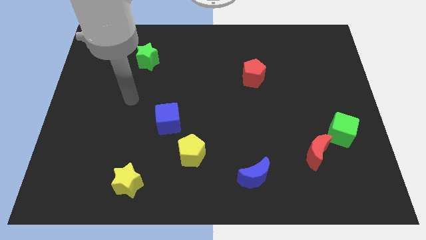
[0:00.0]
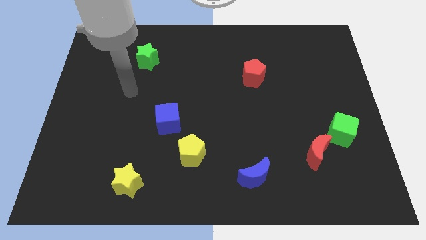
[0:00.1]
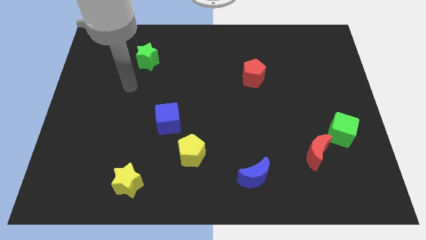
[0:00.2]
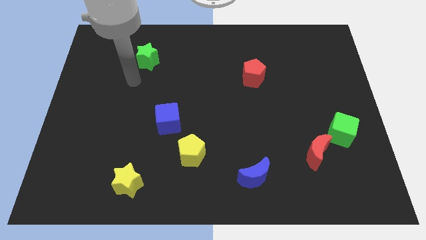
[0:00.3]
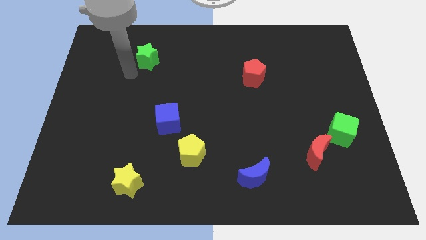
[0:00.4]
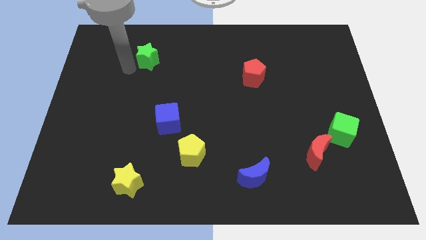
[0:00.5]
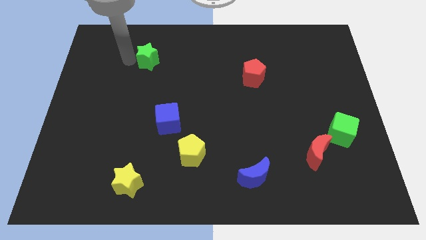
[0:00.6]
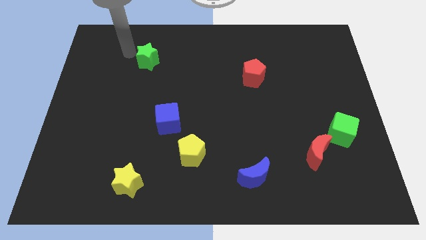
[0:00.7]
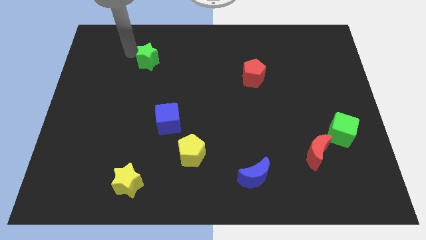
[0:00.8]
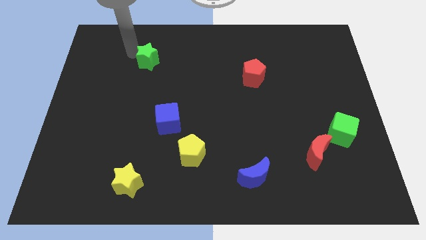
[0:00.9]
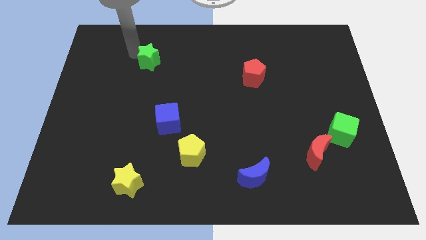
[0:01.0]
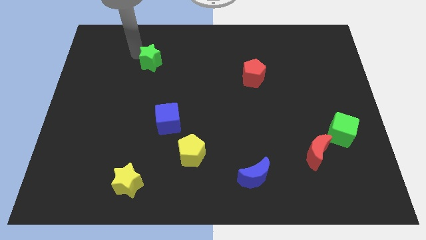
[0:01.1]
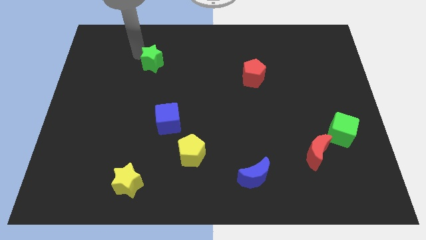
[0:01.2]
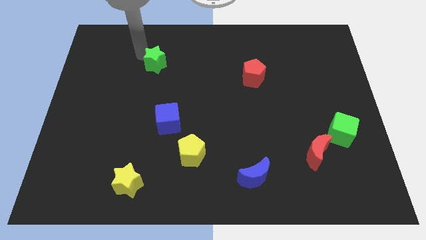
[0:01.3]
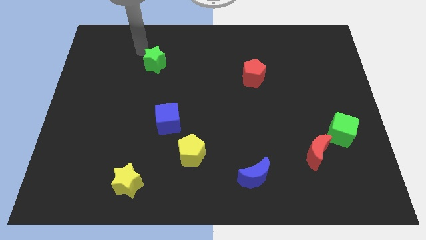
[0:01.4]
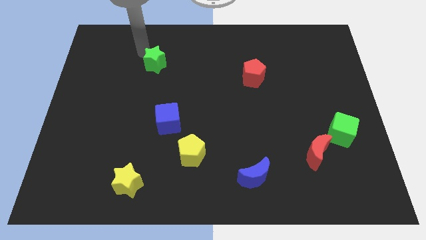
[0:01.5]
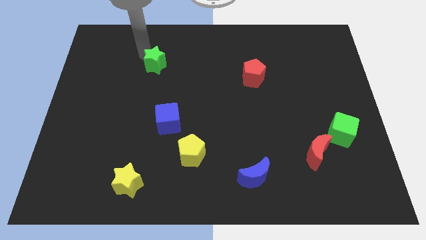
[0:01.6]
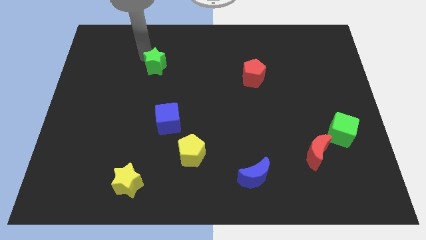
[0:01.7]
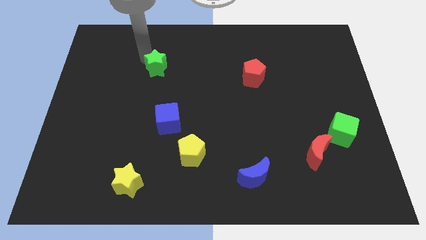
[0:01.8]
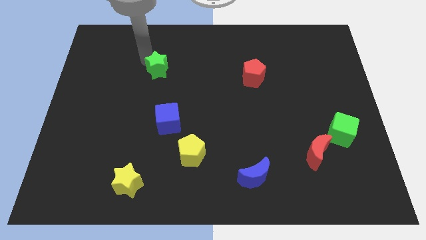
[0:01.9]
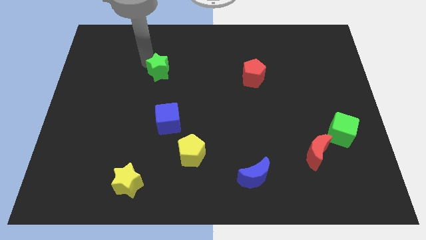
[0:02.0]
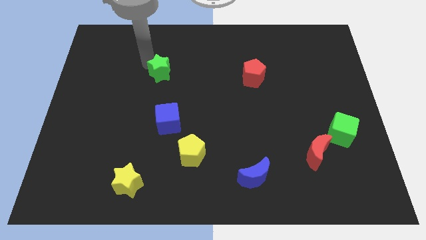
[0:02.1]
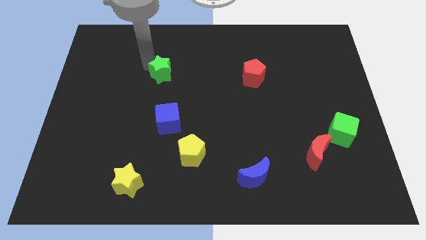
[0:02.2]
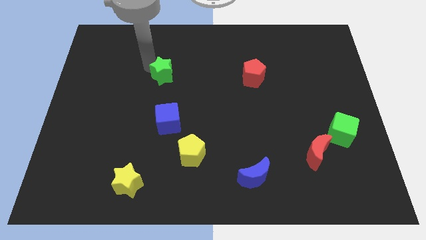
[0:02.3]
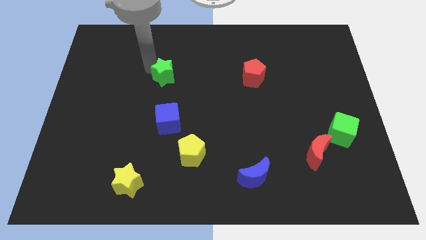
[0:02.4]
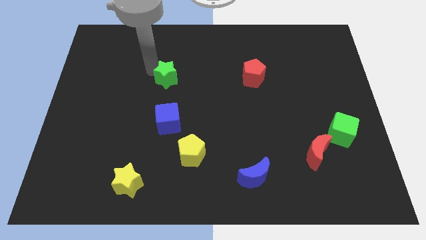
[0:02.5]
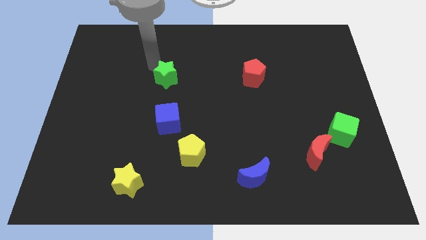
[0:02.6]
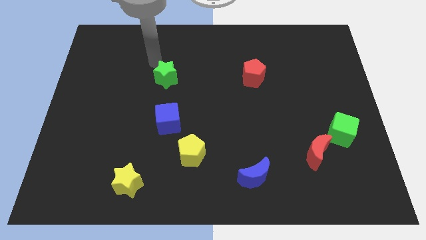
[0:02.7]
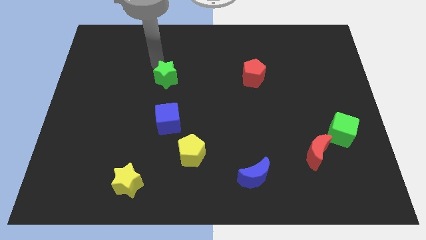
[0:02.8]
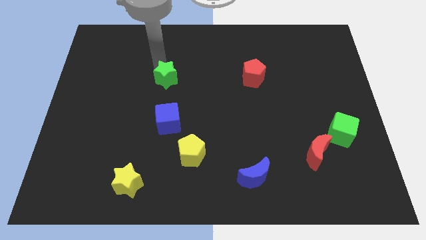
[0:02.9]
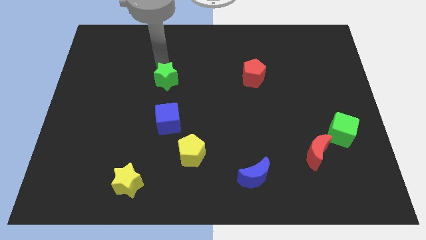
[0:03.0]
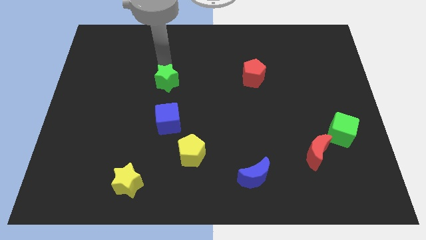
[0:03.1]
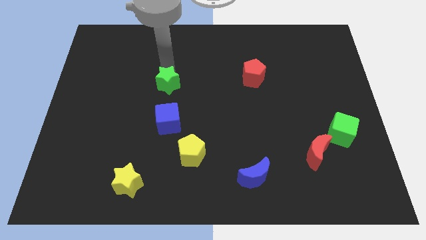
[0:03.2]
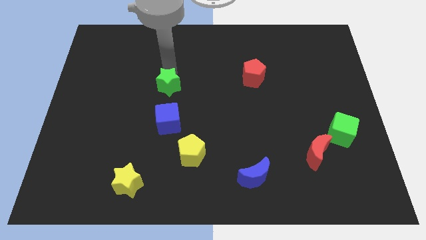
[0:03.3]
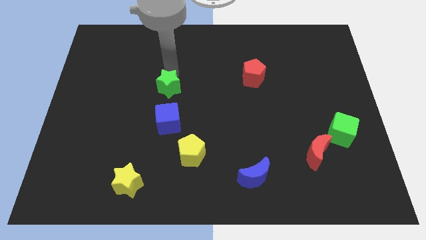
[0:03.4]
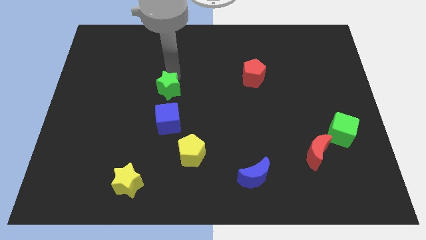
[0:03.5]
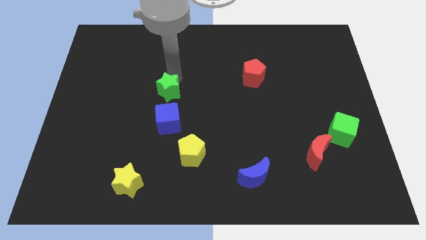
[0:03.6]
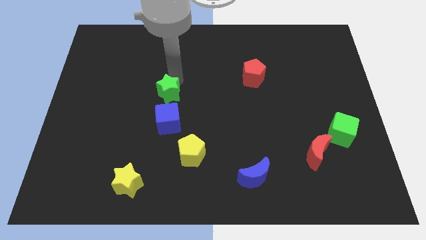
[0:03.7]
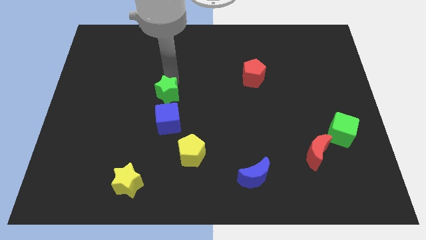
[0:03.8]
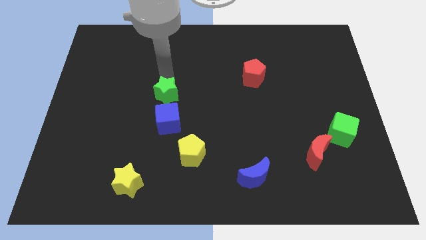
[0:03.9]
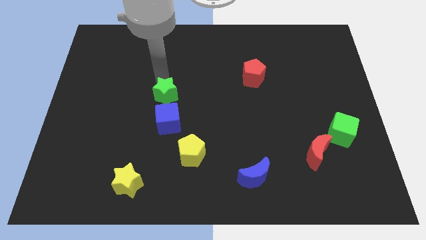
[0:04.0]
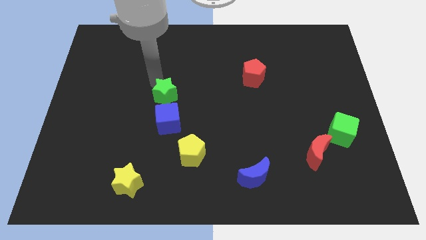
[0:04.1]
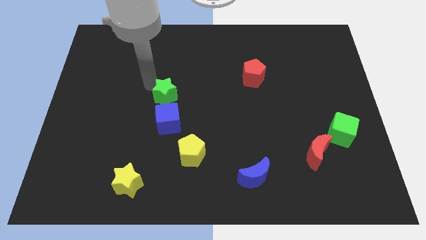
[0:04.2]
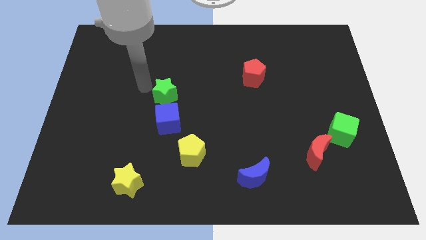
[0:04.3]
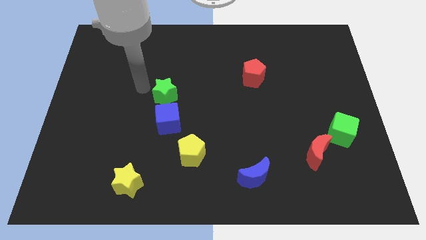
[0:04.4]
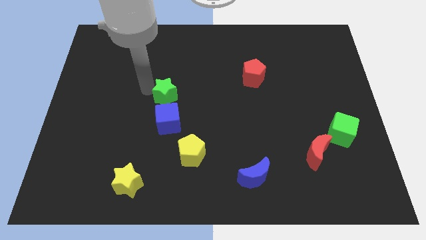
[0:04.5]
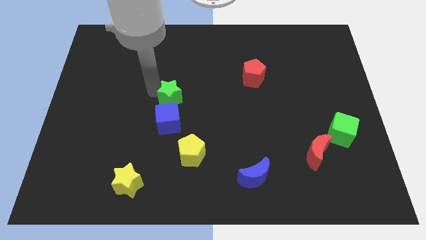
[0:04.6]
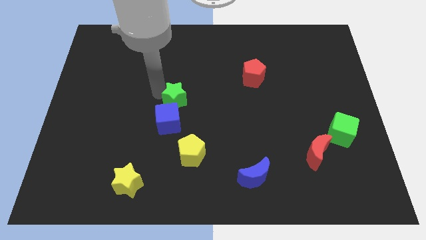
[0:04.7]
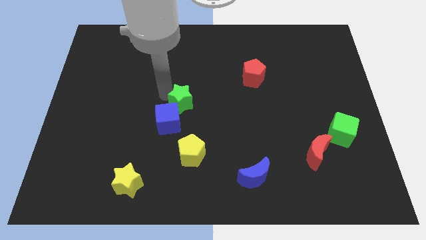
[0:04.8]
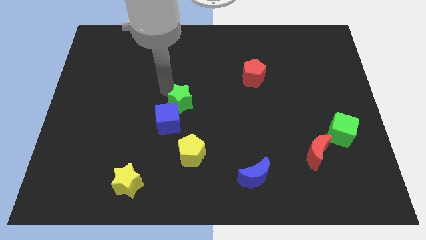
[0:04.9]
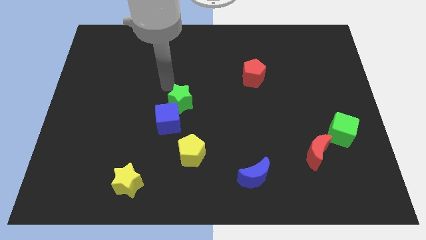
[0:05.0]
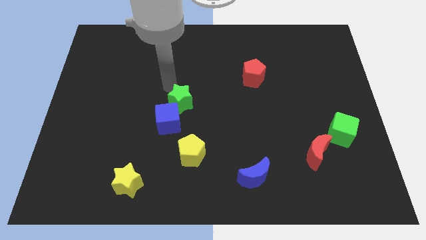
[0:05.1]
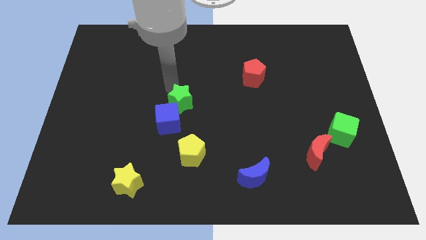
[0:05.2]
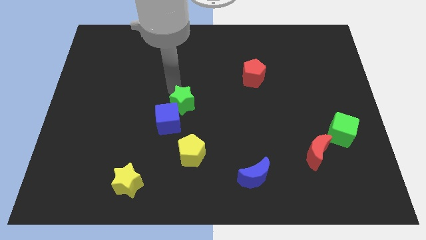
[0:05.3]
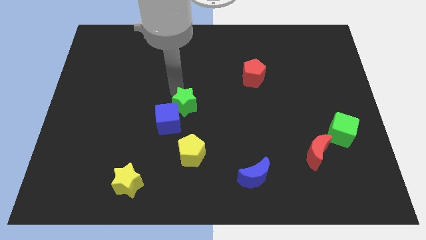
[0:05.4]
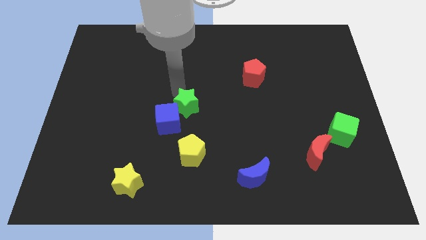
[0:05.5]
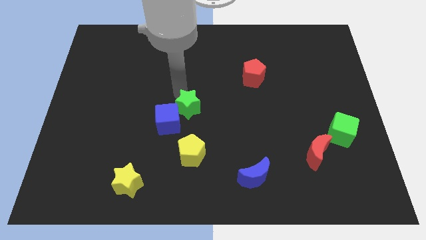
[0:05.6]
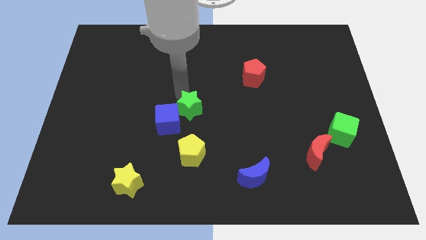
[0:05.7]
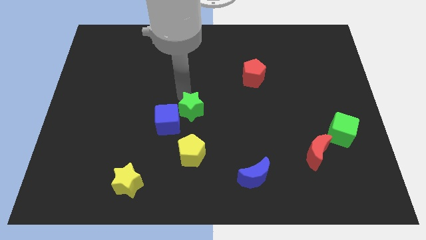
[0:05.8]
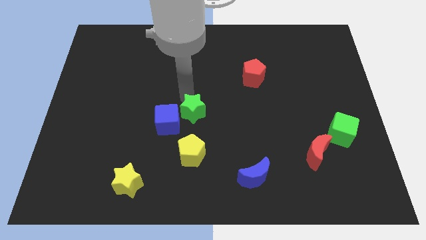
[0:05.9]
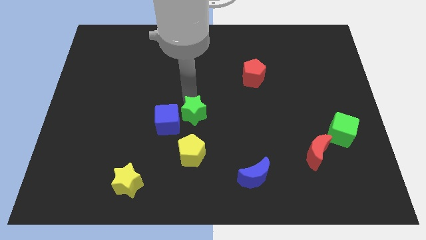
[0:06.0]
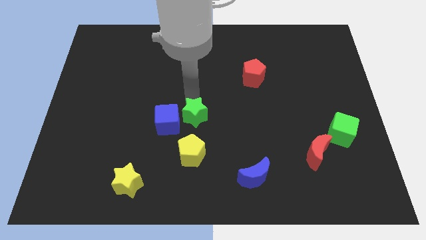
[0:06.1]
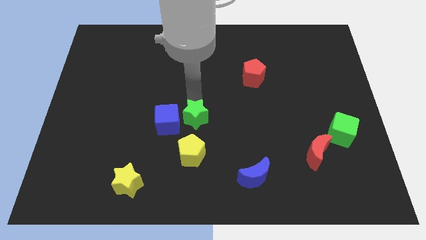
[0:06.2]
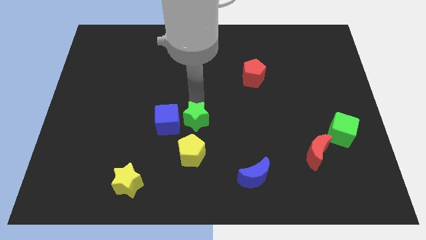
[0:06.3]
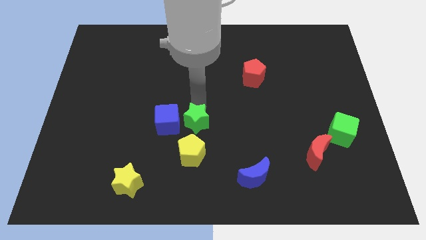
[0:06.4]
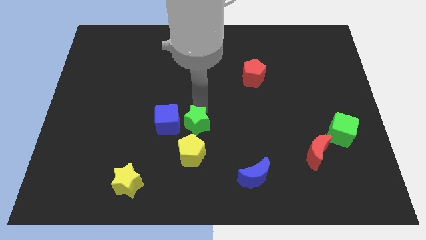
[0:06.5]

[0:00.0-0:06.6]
put the green star to the top right side of the yellow pentagon
